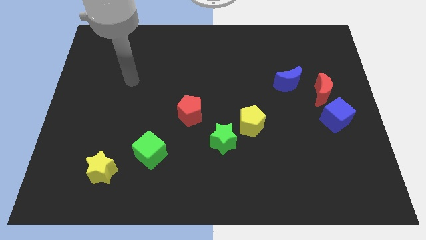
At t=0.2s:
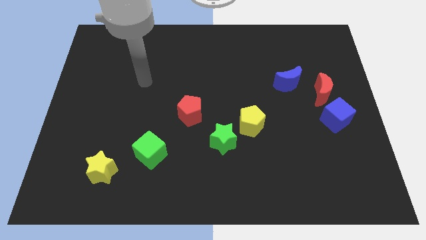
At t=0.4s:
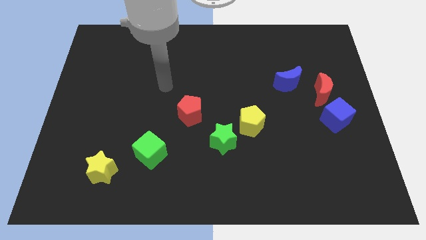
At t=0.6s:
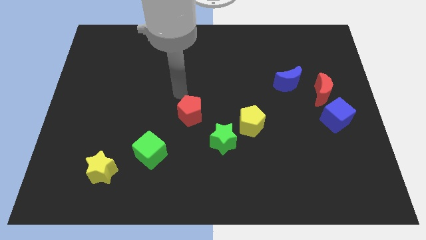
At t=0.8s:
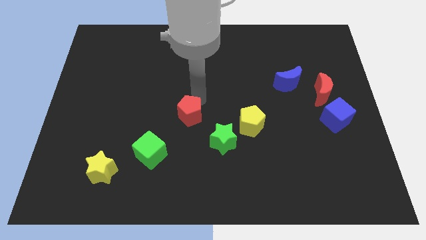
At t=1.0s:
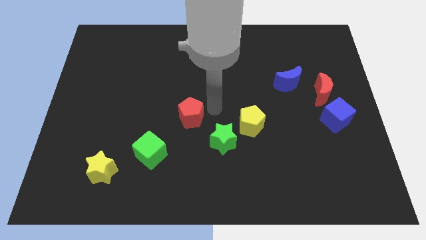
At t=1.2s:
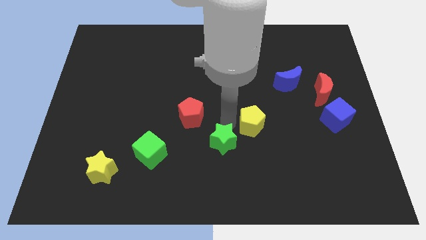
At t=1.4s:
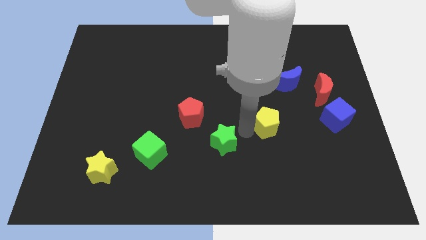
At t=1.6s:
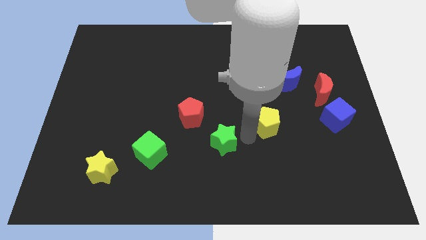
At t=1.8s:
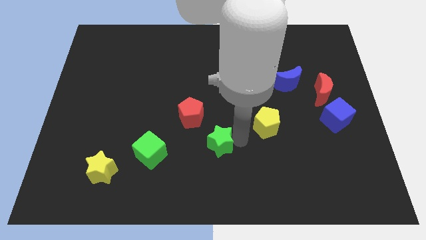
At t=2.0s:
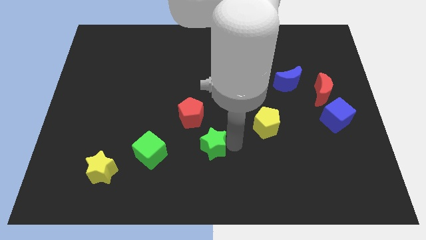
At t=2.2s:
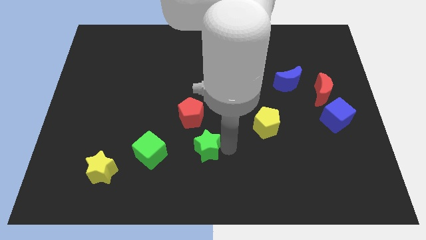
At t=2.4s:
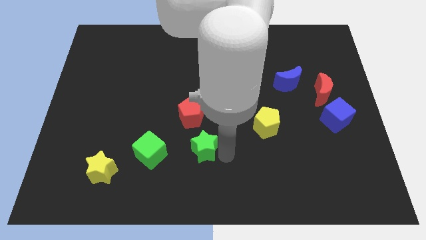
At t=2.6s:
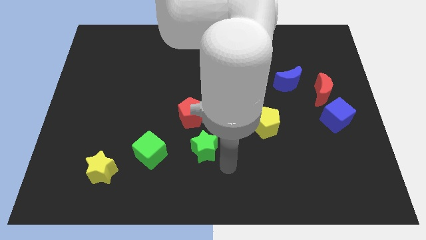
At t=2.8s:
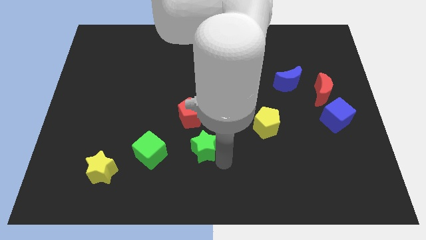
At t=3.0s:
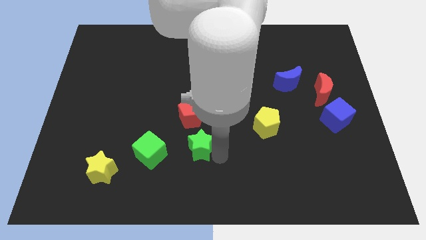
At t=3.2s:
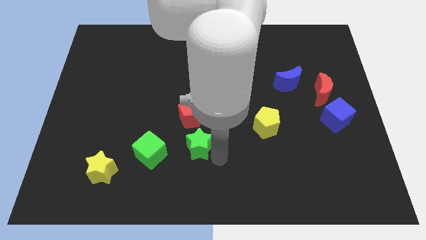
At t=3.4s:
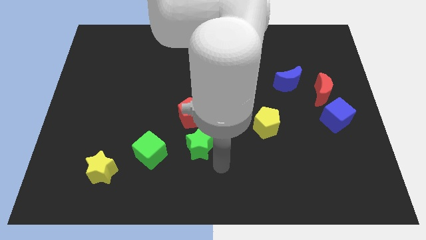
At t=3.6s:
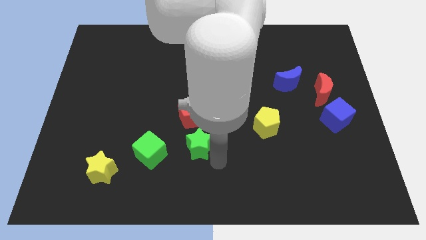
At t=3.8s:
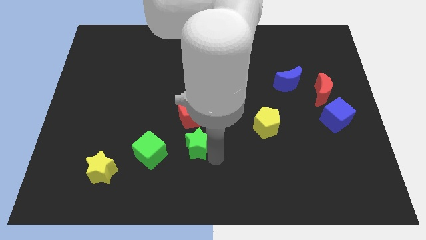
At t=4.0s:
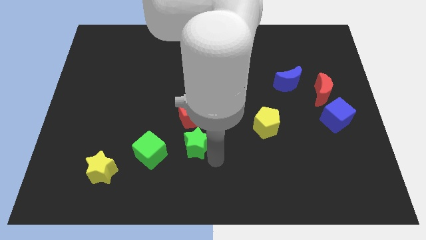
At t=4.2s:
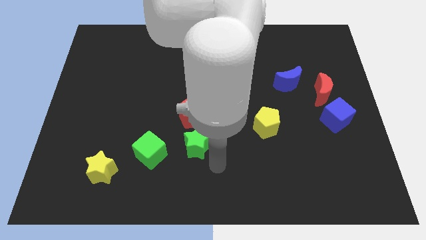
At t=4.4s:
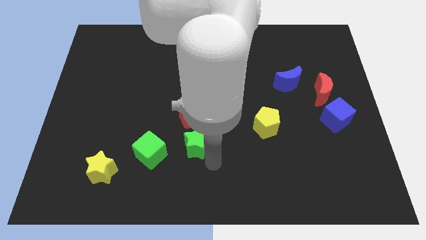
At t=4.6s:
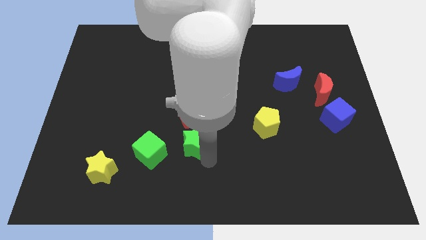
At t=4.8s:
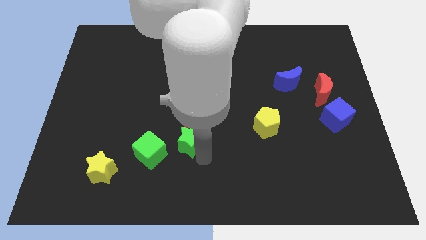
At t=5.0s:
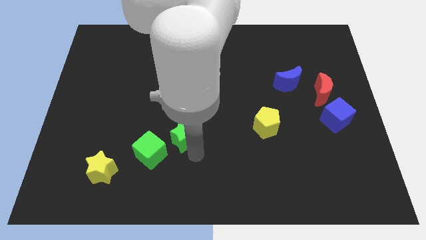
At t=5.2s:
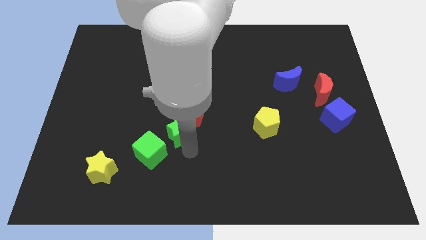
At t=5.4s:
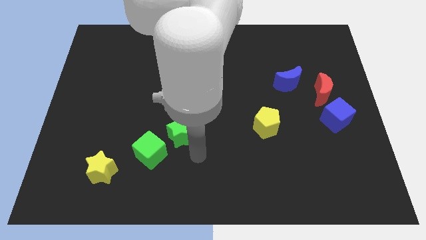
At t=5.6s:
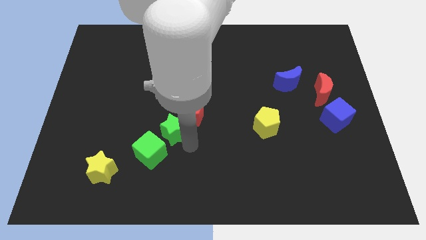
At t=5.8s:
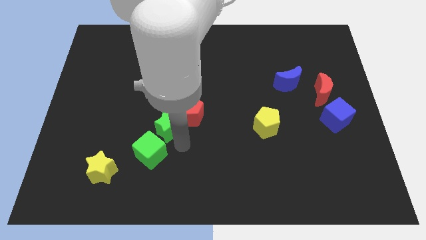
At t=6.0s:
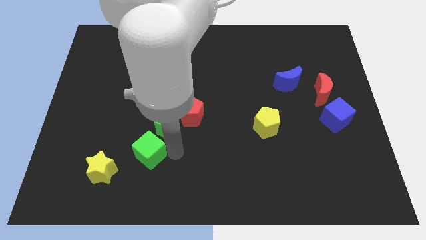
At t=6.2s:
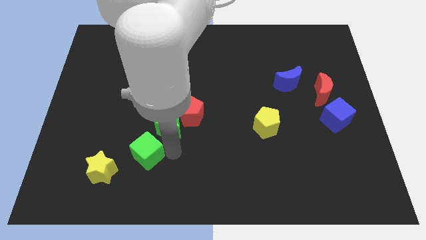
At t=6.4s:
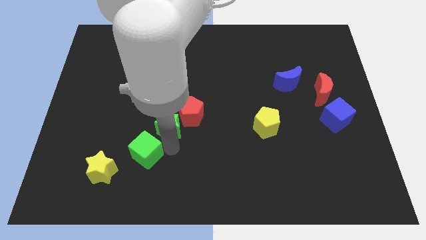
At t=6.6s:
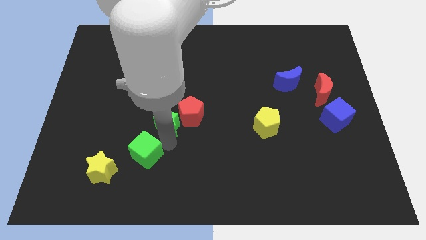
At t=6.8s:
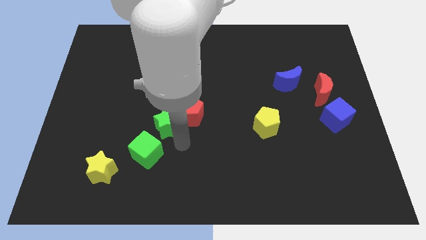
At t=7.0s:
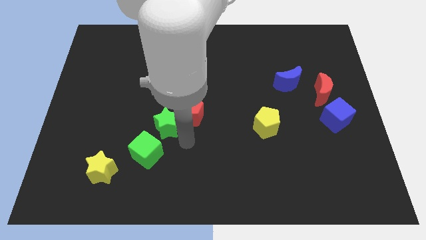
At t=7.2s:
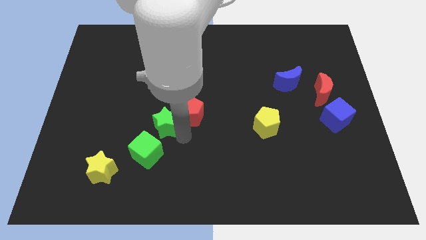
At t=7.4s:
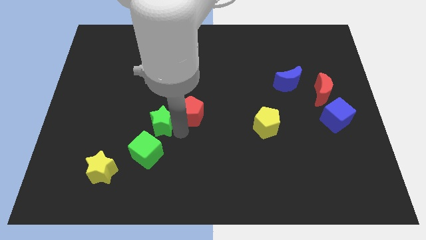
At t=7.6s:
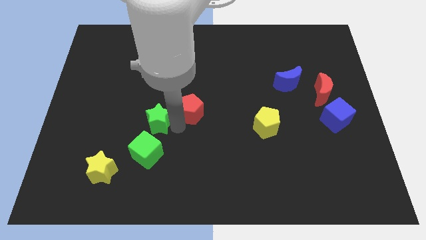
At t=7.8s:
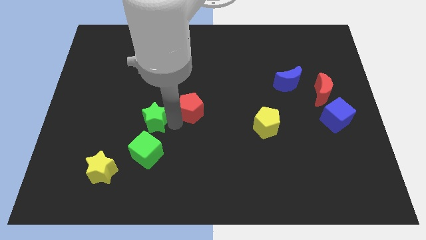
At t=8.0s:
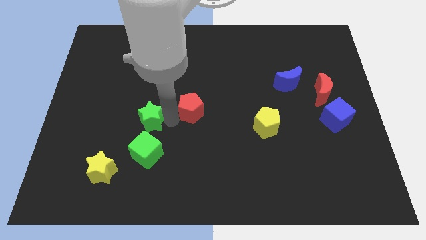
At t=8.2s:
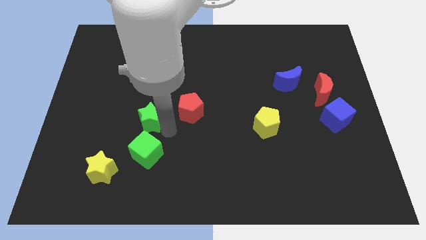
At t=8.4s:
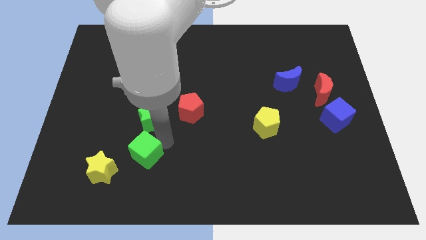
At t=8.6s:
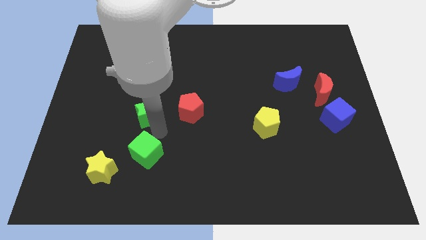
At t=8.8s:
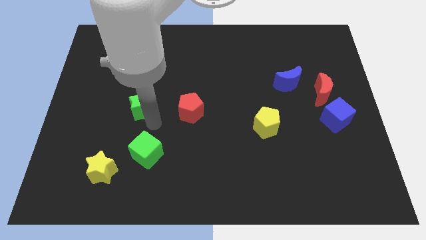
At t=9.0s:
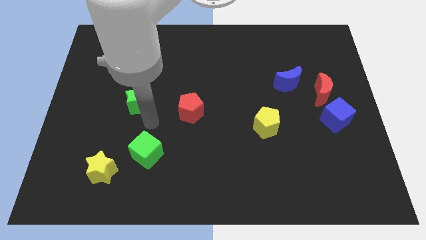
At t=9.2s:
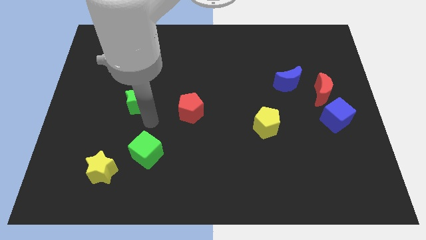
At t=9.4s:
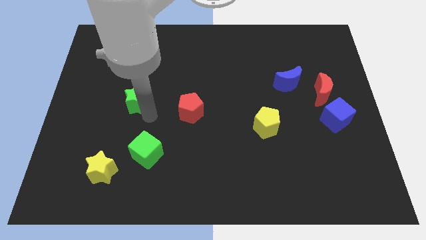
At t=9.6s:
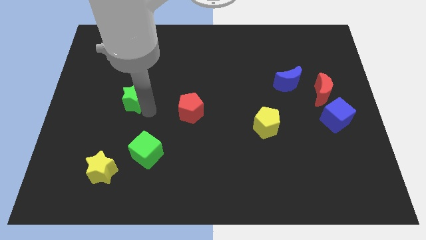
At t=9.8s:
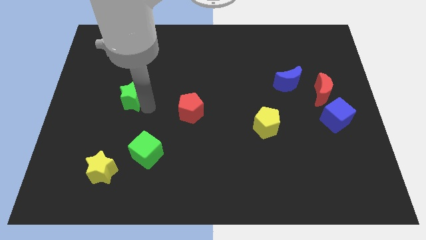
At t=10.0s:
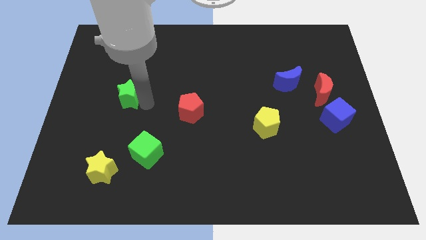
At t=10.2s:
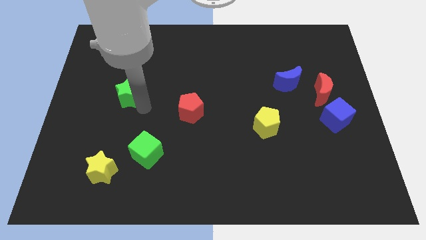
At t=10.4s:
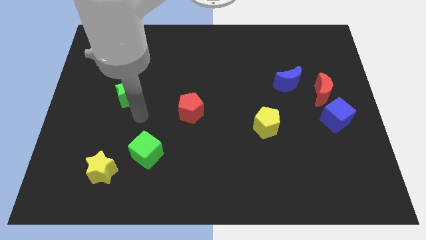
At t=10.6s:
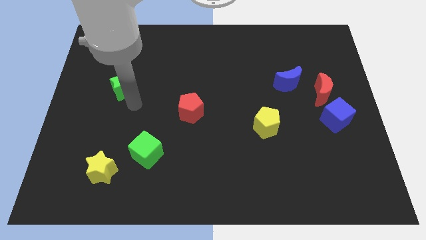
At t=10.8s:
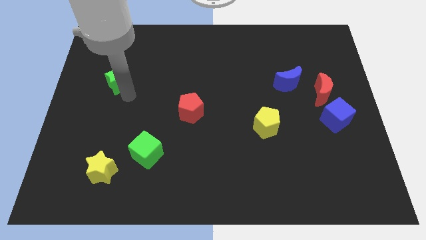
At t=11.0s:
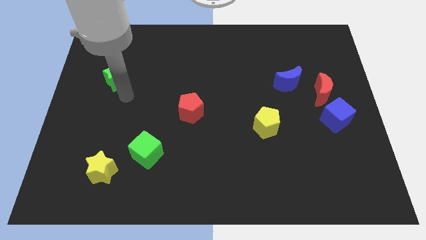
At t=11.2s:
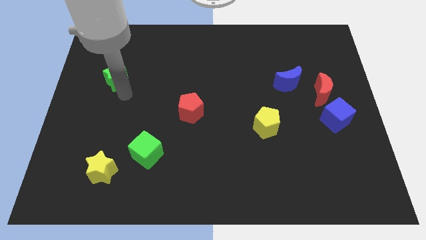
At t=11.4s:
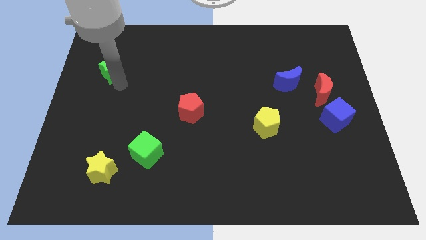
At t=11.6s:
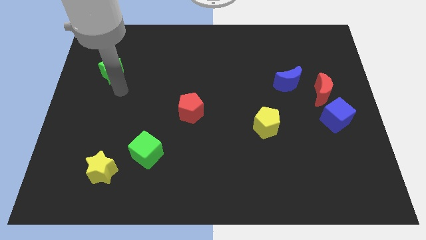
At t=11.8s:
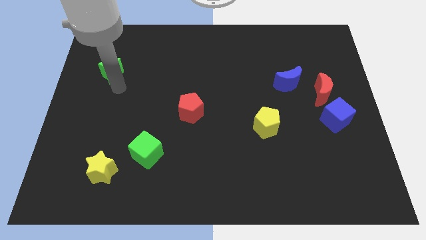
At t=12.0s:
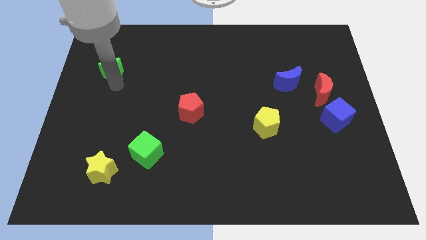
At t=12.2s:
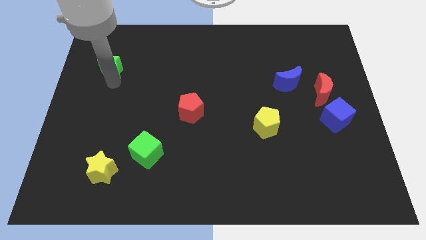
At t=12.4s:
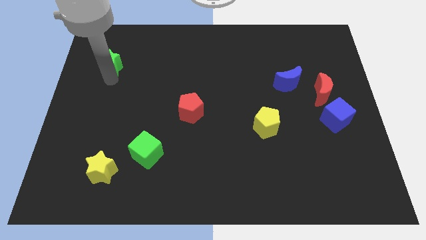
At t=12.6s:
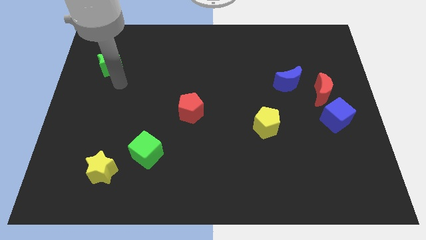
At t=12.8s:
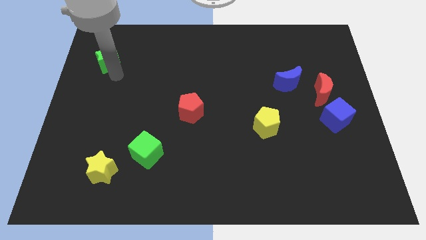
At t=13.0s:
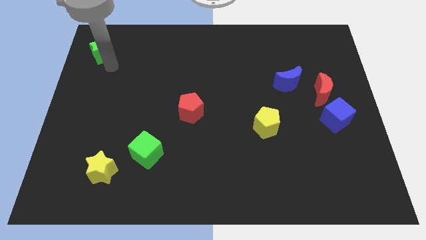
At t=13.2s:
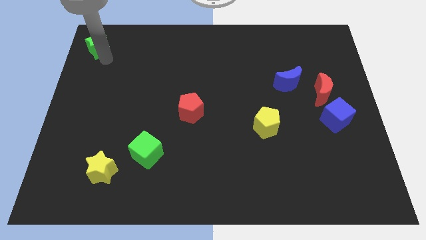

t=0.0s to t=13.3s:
put the green star to the top left corner

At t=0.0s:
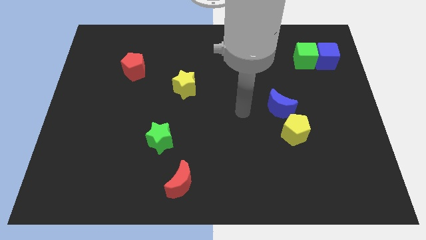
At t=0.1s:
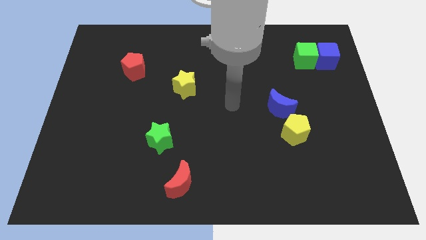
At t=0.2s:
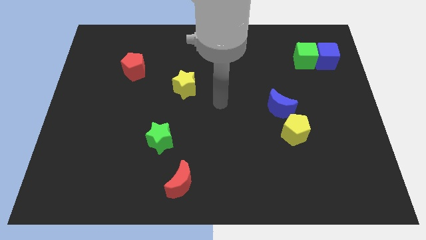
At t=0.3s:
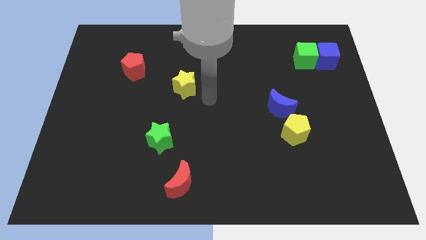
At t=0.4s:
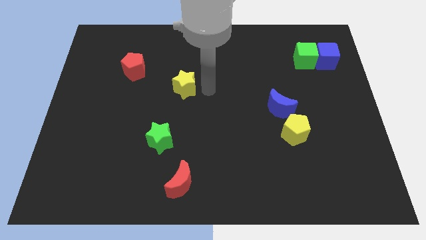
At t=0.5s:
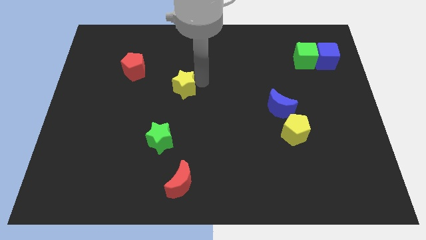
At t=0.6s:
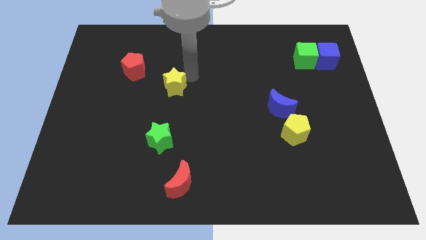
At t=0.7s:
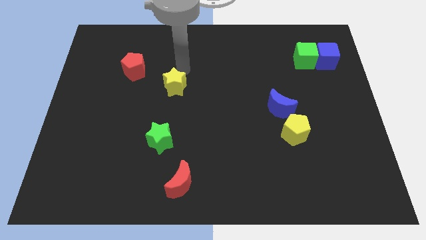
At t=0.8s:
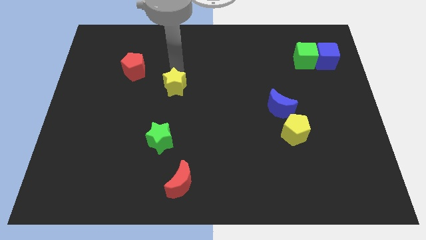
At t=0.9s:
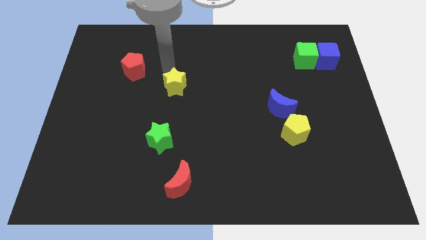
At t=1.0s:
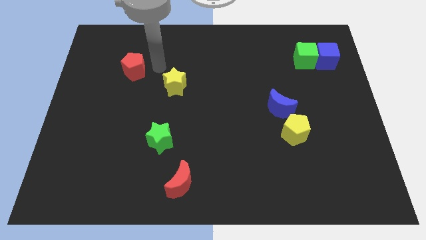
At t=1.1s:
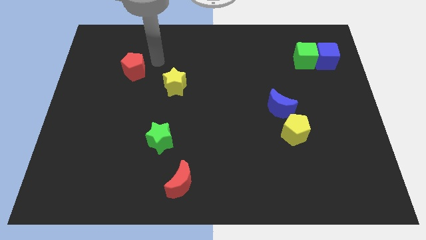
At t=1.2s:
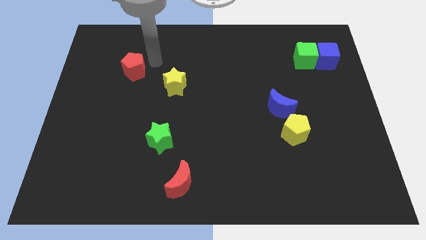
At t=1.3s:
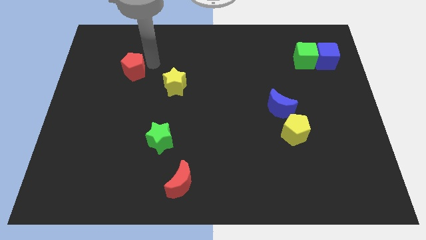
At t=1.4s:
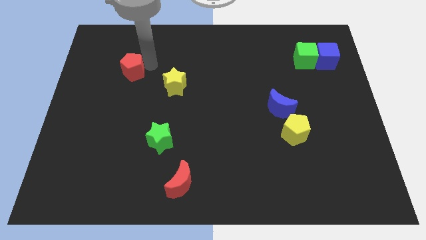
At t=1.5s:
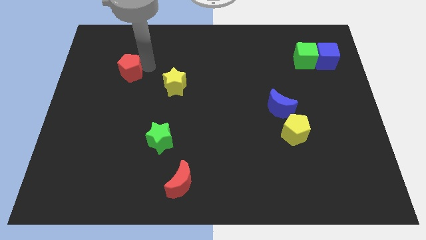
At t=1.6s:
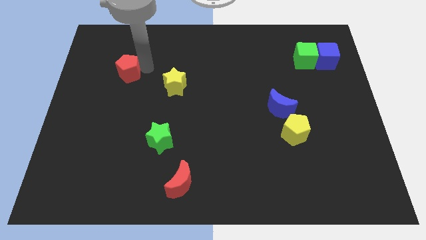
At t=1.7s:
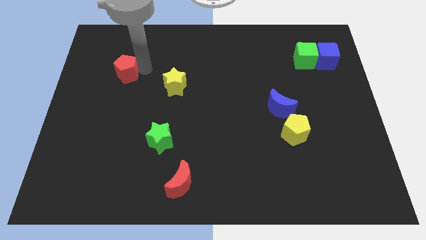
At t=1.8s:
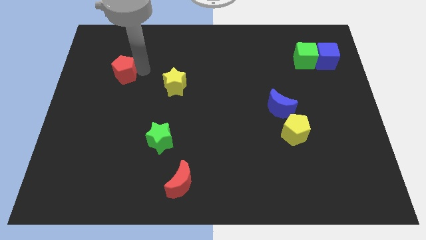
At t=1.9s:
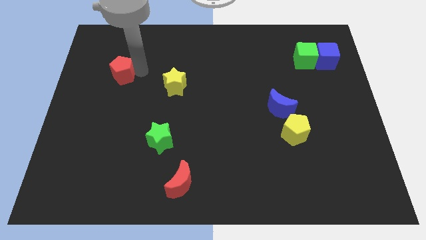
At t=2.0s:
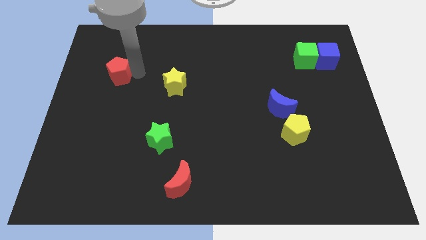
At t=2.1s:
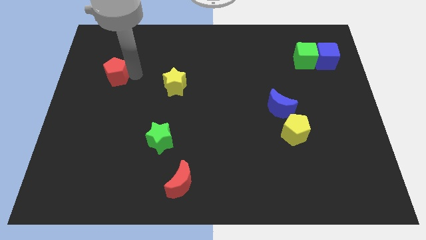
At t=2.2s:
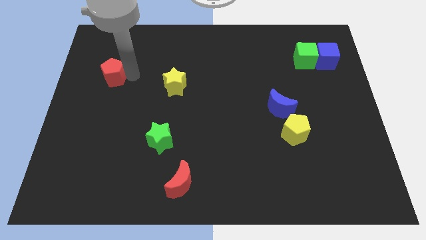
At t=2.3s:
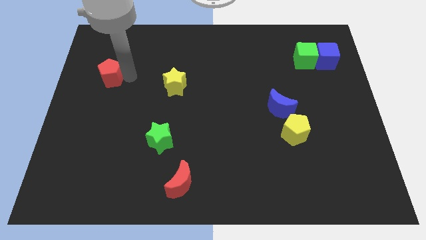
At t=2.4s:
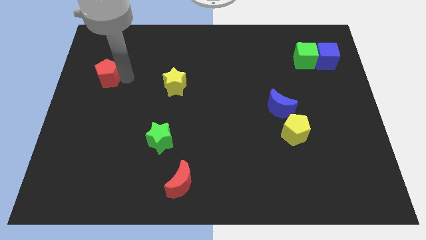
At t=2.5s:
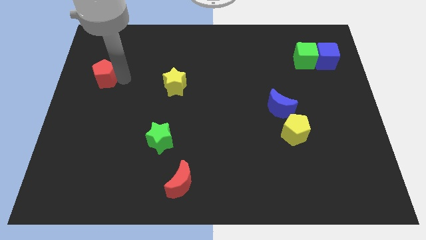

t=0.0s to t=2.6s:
push the red pentagon to the center left
